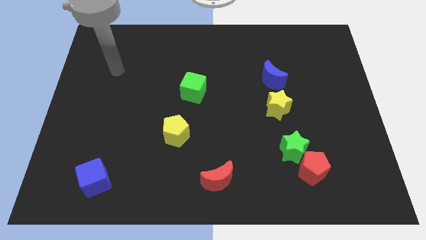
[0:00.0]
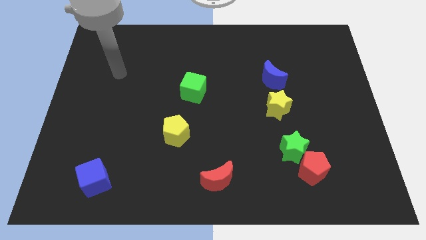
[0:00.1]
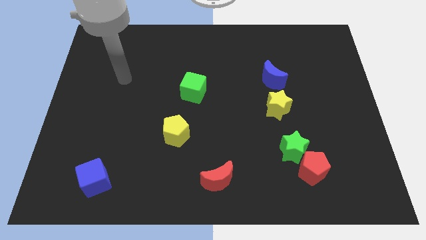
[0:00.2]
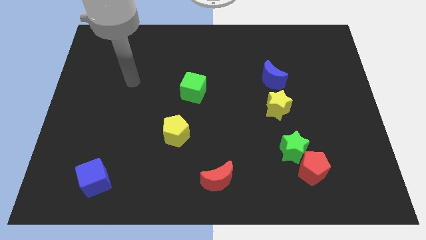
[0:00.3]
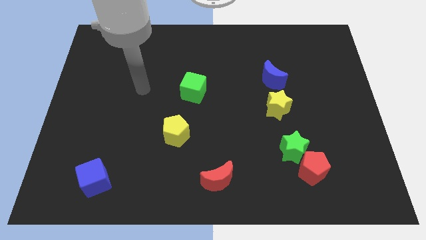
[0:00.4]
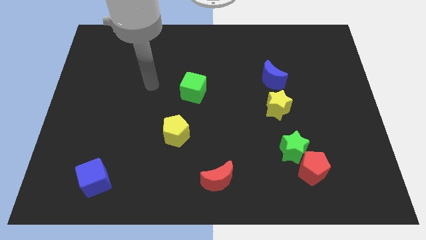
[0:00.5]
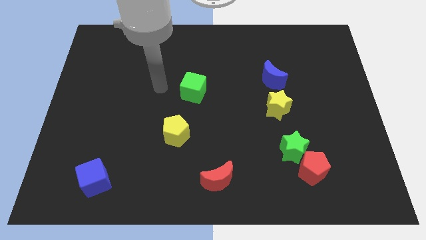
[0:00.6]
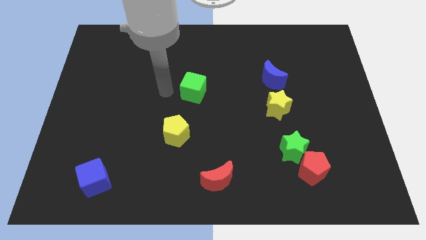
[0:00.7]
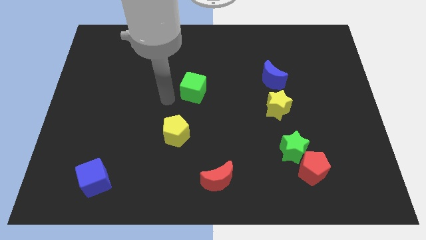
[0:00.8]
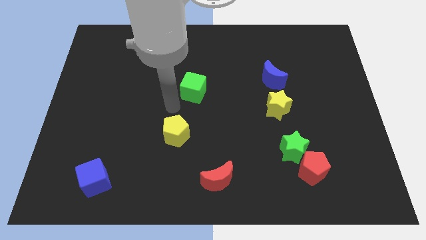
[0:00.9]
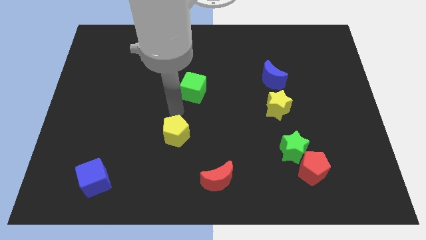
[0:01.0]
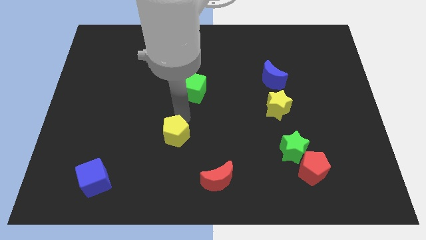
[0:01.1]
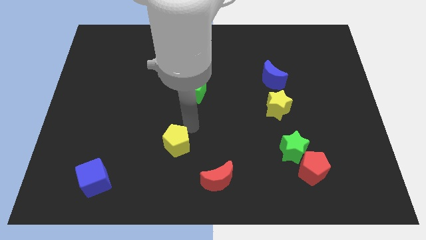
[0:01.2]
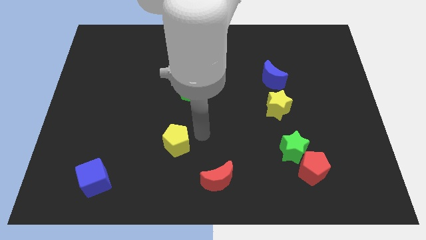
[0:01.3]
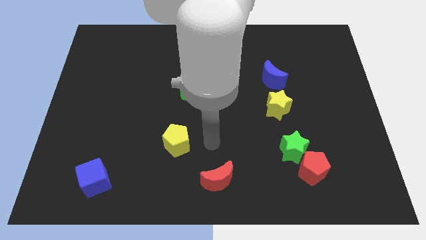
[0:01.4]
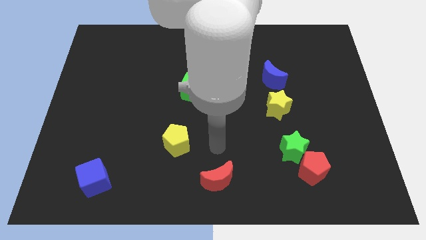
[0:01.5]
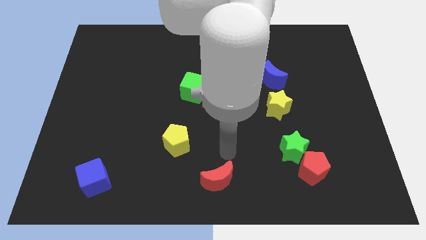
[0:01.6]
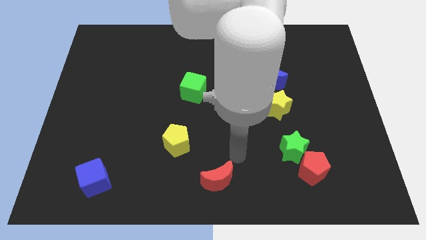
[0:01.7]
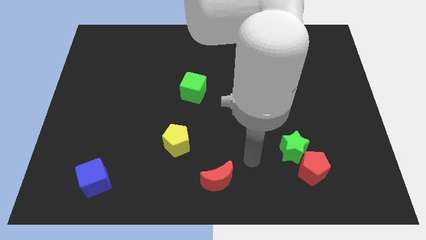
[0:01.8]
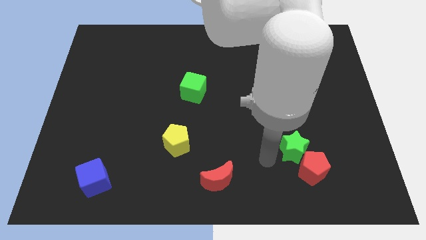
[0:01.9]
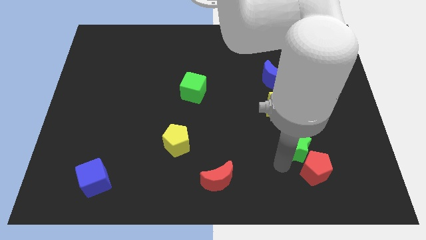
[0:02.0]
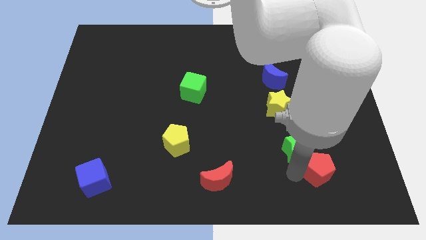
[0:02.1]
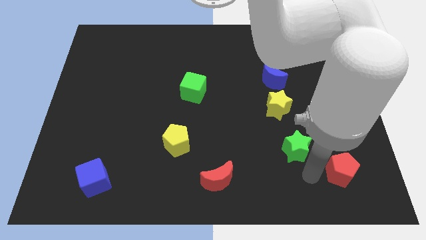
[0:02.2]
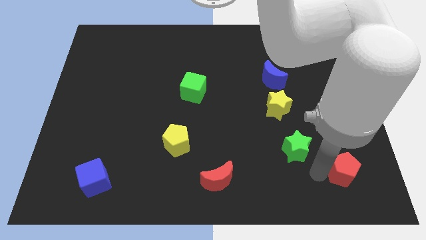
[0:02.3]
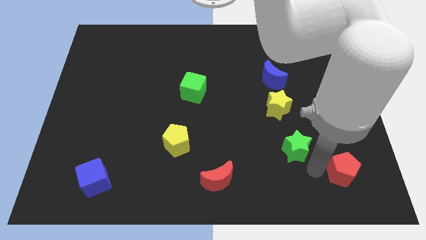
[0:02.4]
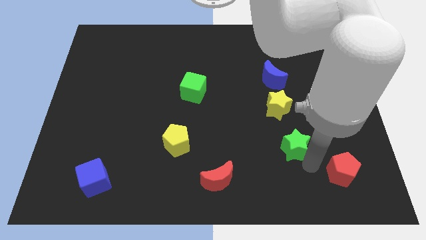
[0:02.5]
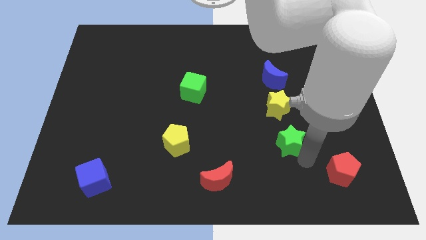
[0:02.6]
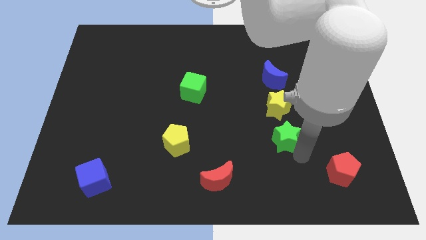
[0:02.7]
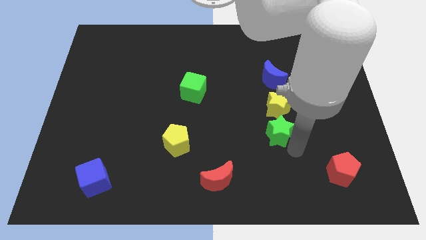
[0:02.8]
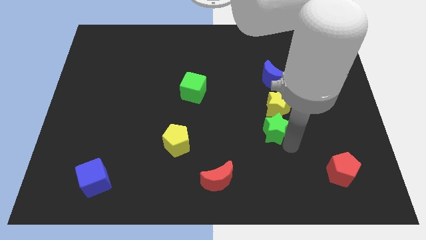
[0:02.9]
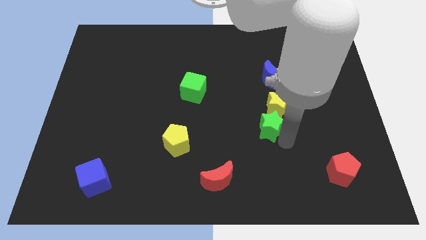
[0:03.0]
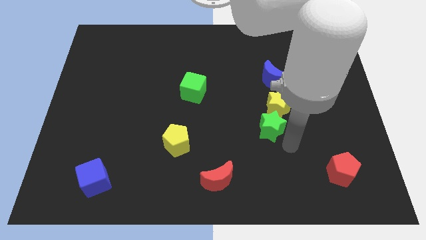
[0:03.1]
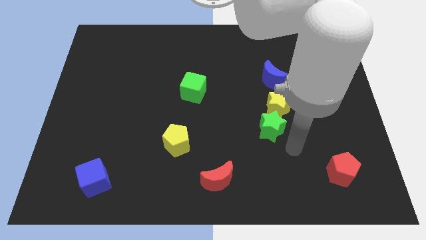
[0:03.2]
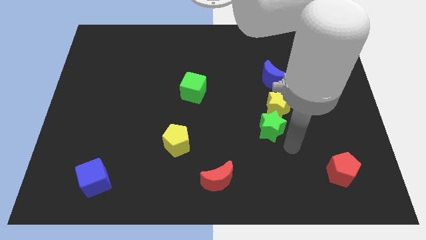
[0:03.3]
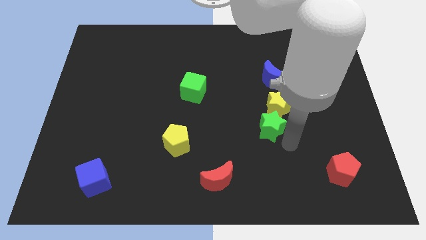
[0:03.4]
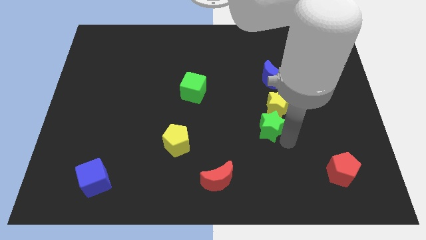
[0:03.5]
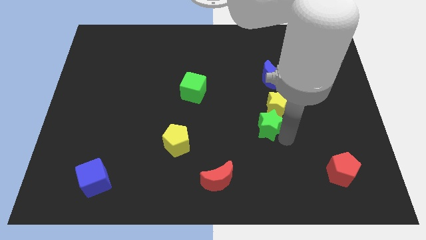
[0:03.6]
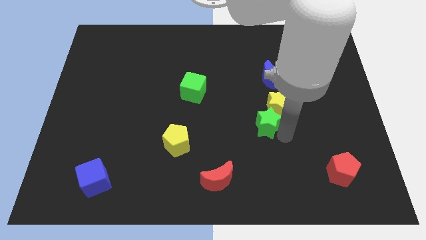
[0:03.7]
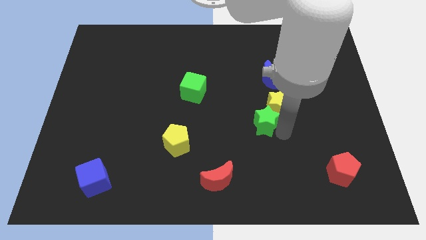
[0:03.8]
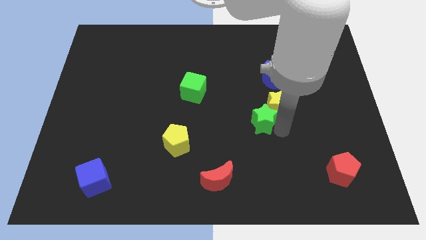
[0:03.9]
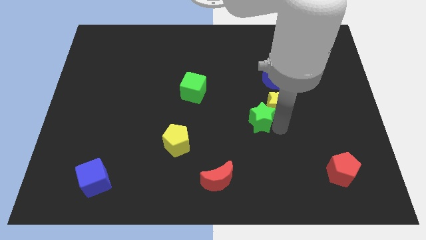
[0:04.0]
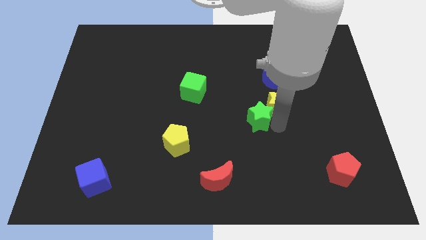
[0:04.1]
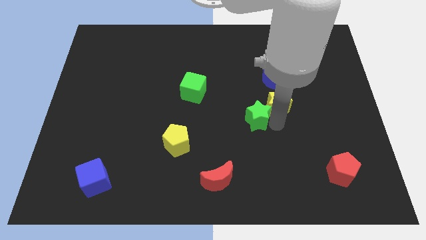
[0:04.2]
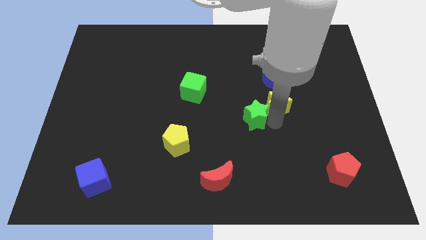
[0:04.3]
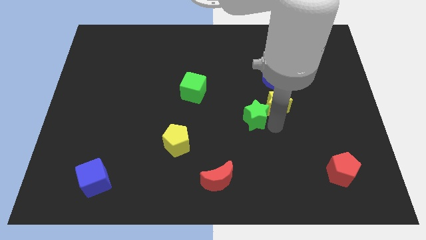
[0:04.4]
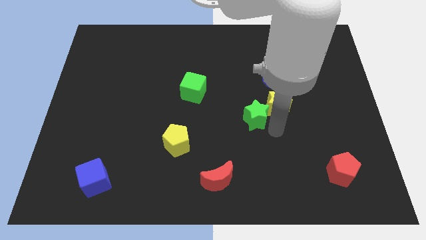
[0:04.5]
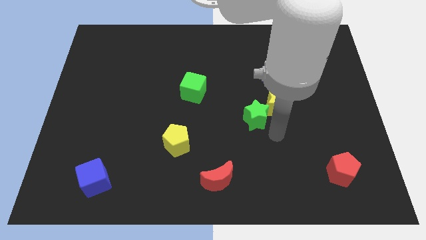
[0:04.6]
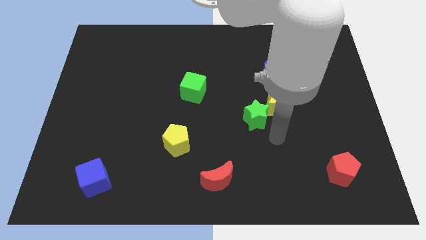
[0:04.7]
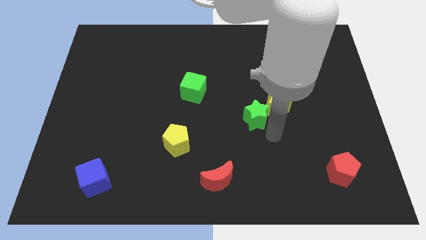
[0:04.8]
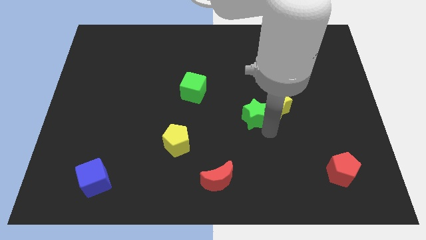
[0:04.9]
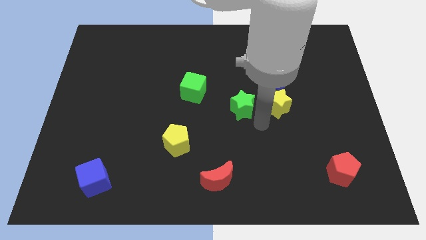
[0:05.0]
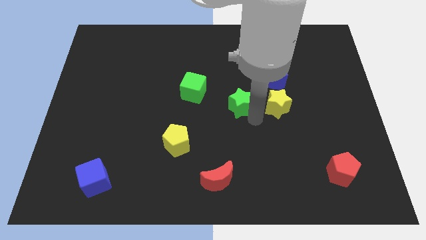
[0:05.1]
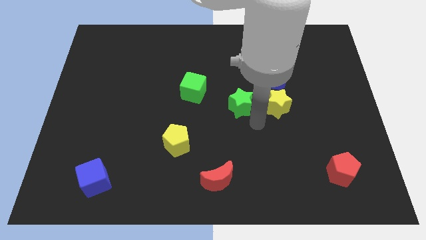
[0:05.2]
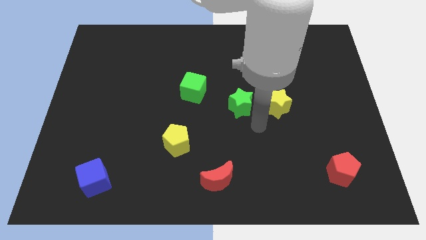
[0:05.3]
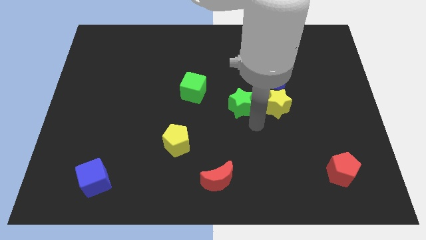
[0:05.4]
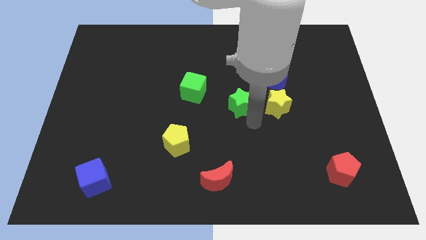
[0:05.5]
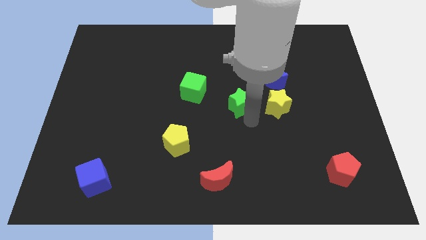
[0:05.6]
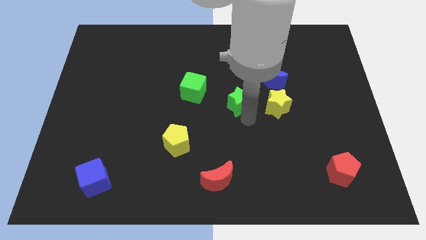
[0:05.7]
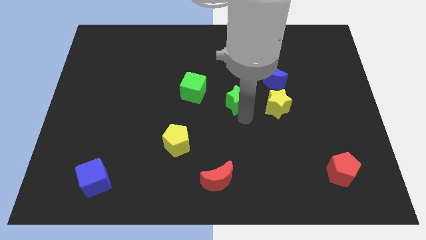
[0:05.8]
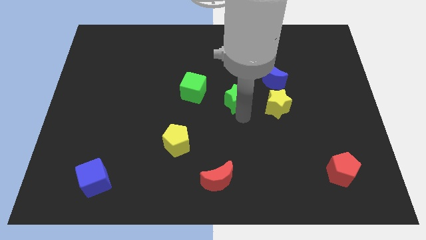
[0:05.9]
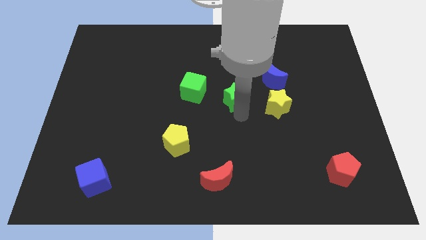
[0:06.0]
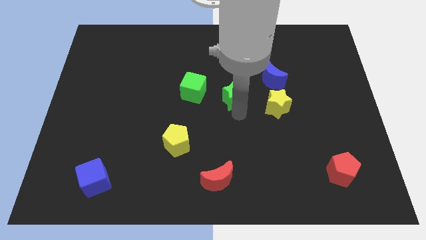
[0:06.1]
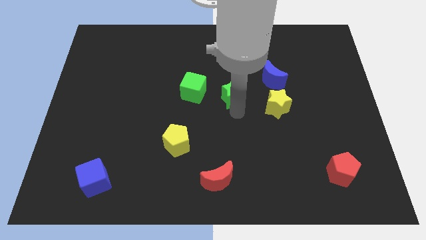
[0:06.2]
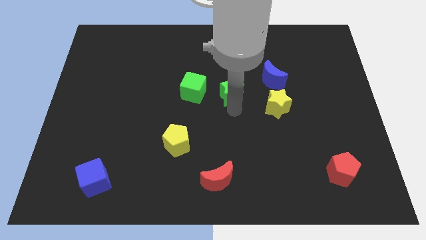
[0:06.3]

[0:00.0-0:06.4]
move the green star diagonally up and left

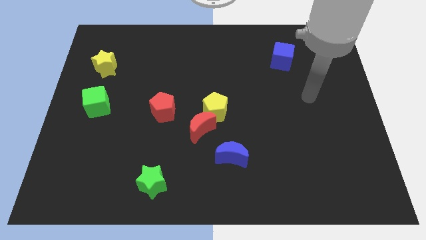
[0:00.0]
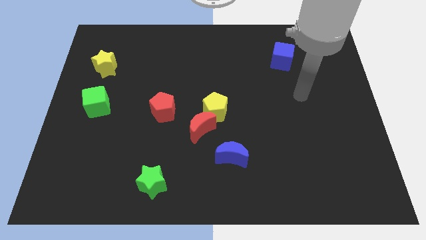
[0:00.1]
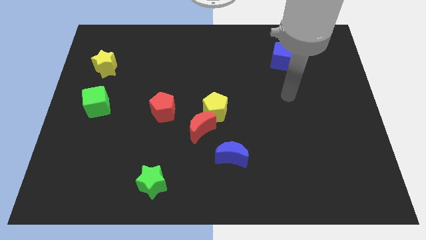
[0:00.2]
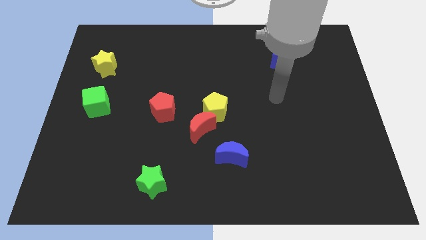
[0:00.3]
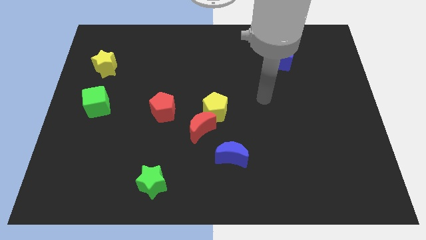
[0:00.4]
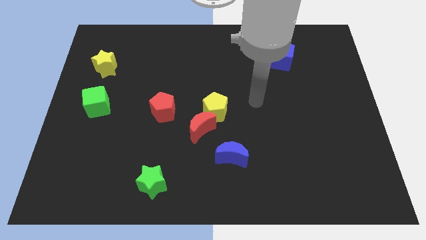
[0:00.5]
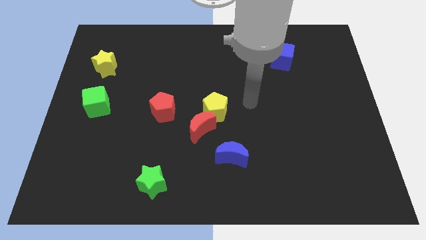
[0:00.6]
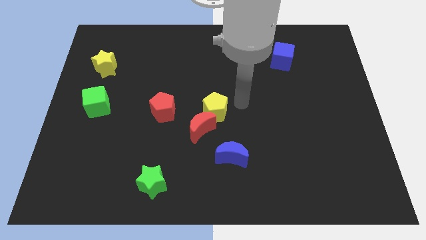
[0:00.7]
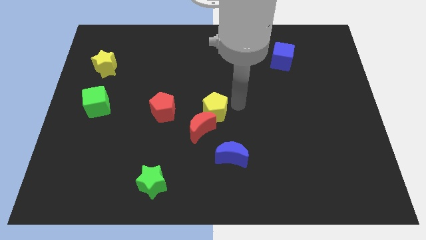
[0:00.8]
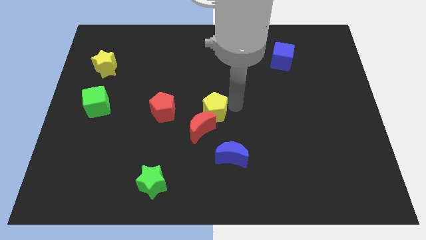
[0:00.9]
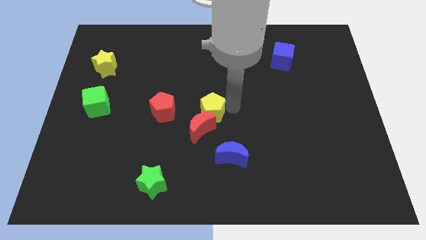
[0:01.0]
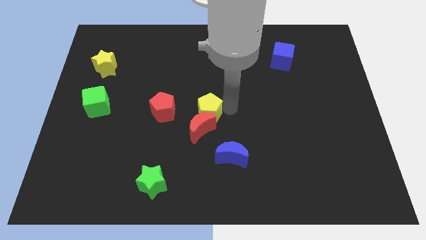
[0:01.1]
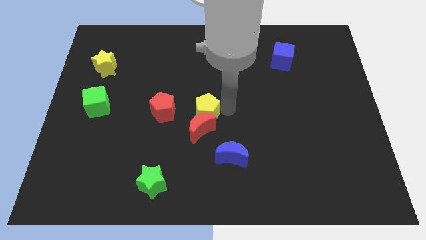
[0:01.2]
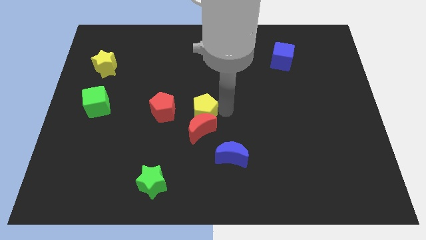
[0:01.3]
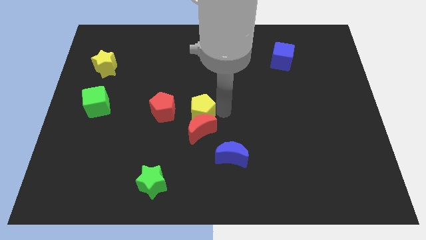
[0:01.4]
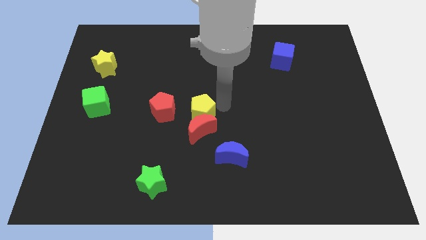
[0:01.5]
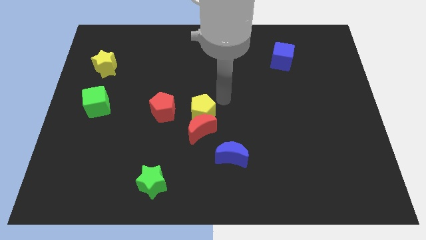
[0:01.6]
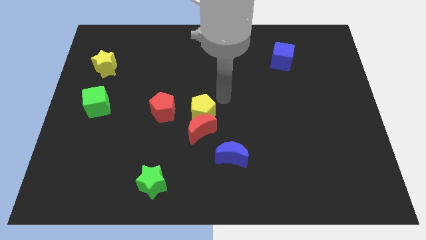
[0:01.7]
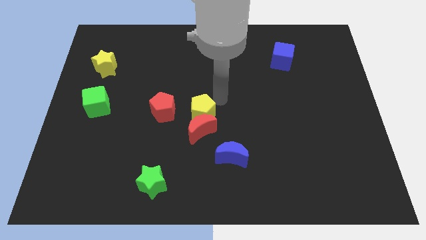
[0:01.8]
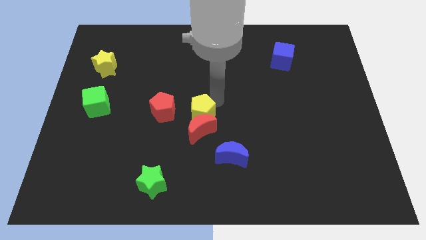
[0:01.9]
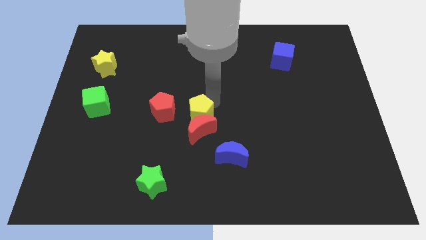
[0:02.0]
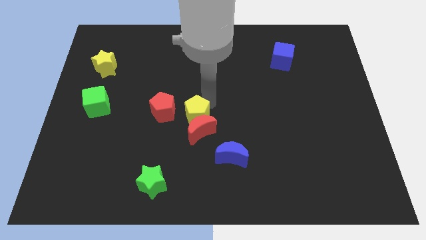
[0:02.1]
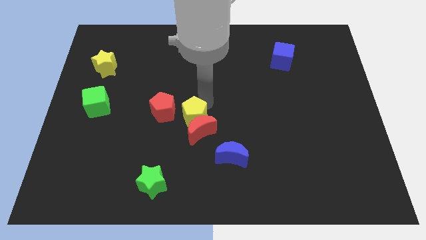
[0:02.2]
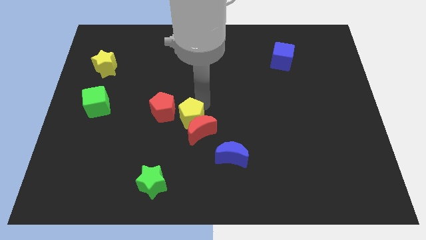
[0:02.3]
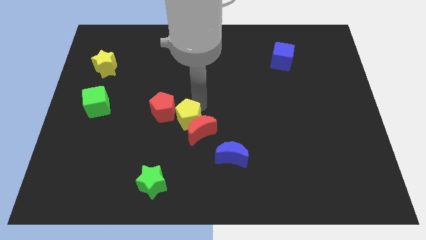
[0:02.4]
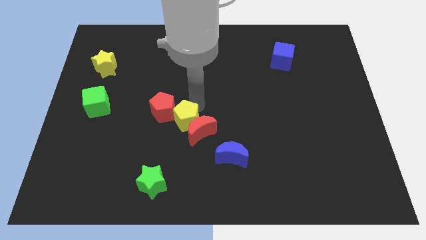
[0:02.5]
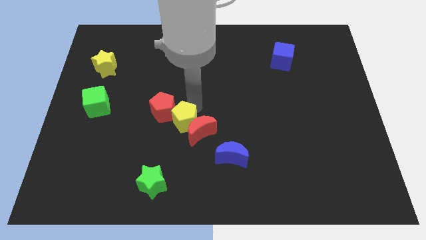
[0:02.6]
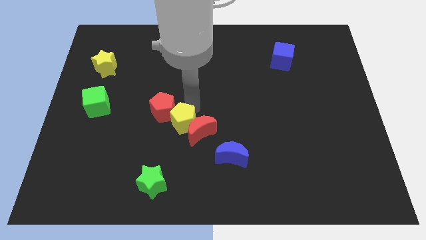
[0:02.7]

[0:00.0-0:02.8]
push the yellow pentagon diagonally downwards and to the left somewhat
